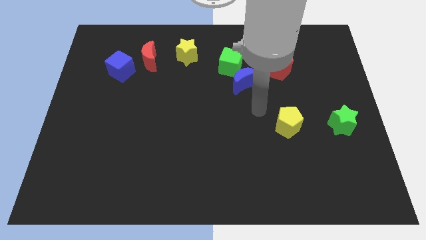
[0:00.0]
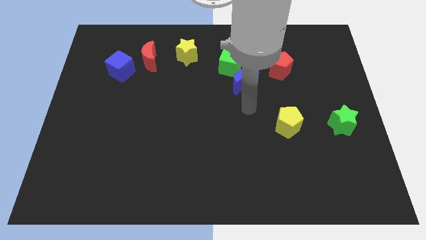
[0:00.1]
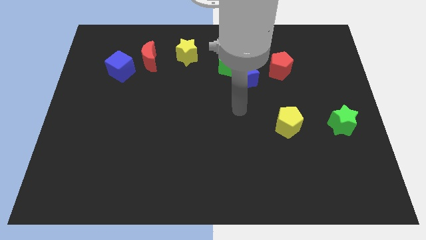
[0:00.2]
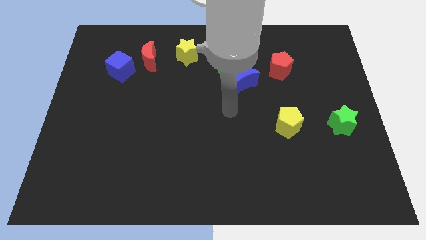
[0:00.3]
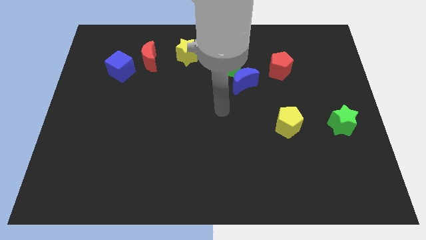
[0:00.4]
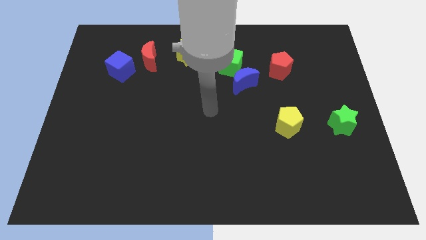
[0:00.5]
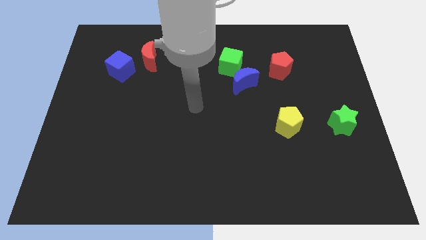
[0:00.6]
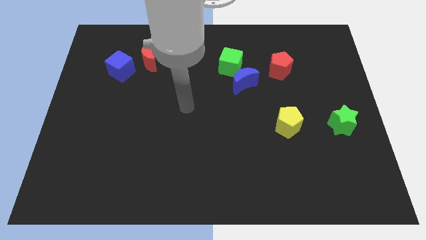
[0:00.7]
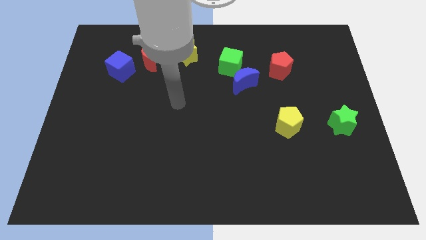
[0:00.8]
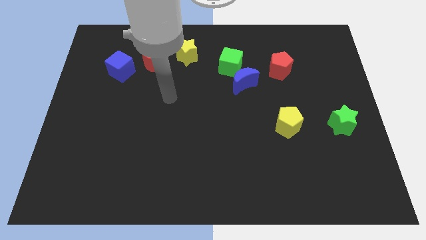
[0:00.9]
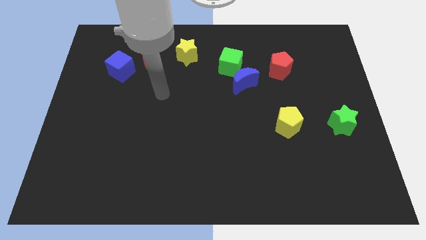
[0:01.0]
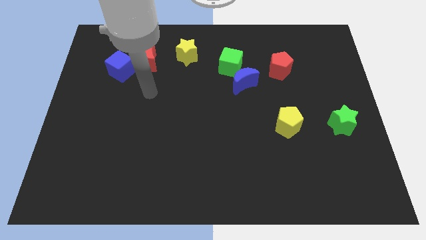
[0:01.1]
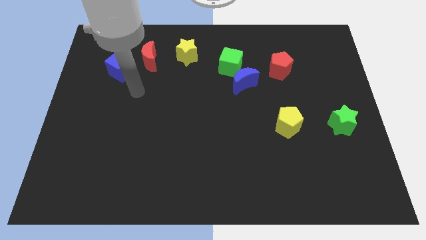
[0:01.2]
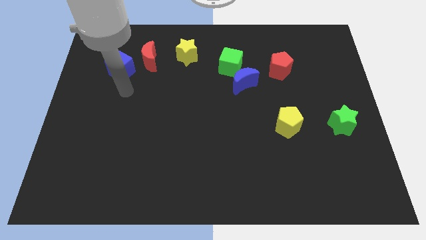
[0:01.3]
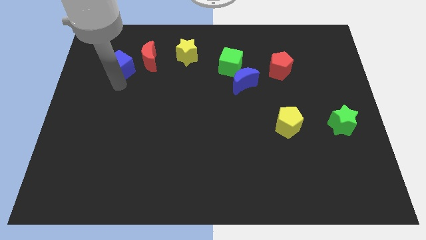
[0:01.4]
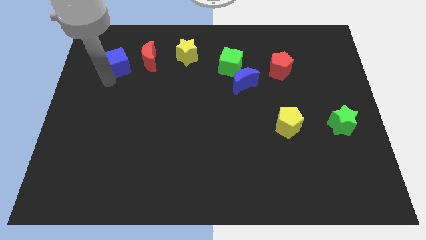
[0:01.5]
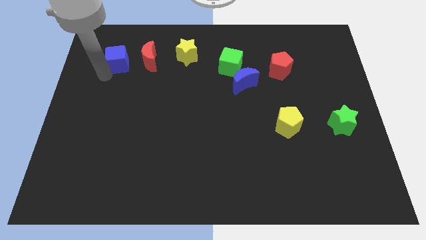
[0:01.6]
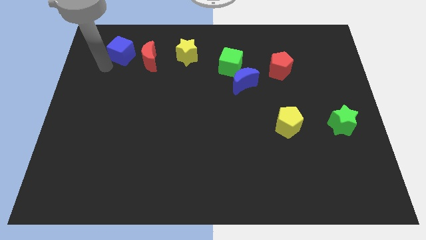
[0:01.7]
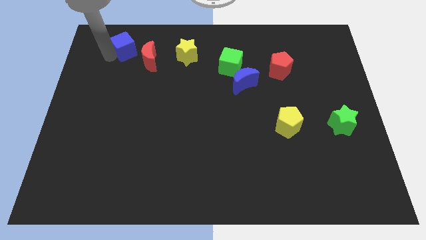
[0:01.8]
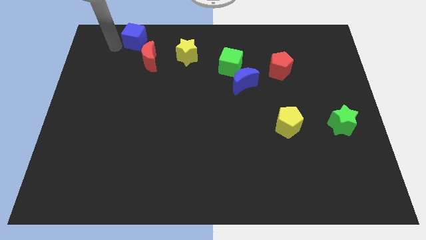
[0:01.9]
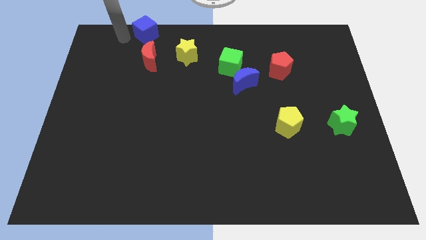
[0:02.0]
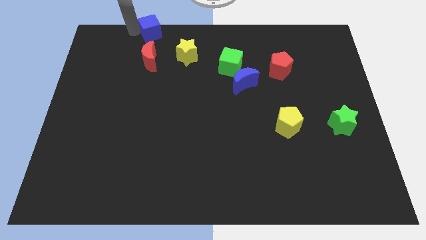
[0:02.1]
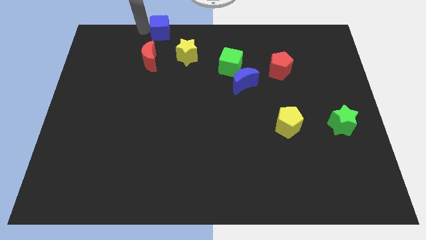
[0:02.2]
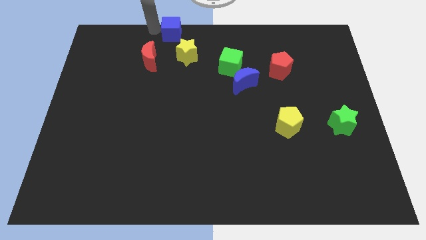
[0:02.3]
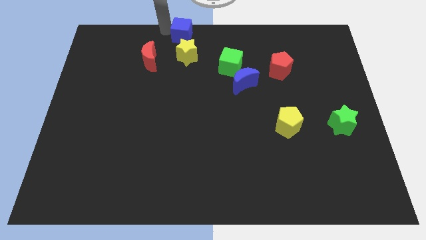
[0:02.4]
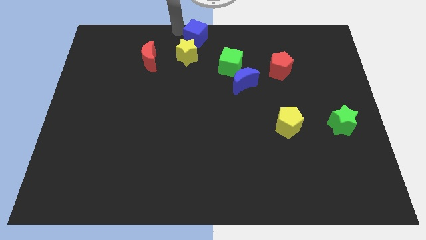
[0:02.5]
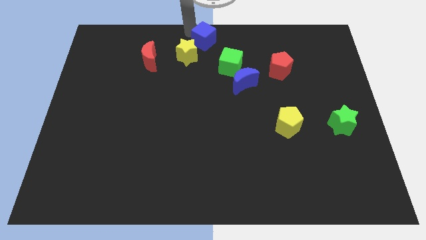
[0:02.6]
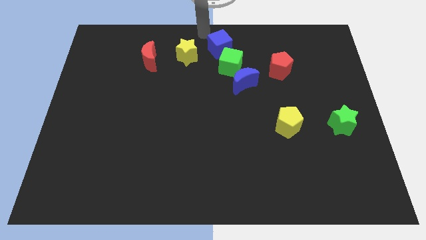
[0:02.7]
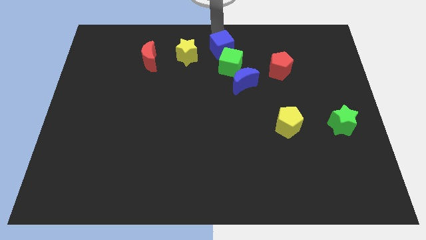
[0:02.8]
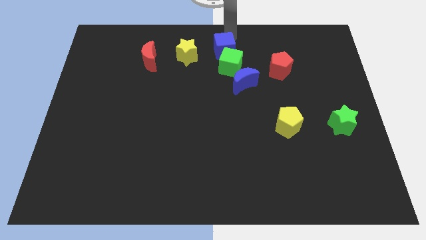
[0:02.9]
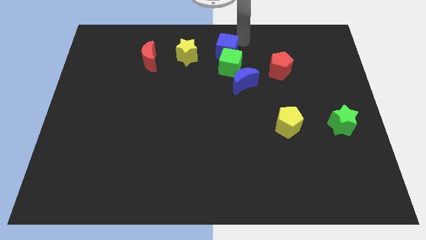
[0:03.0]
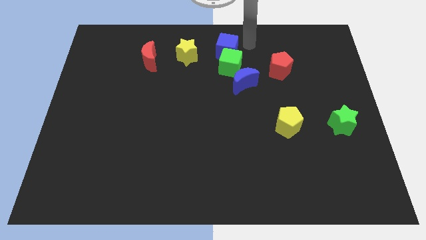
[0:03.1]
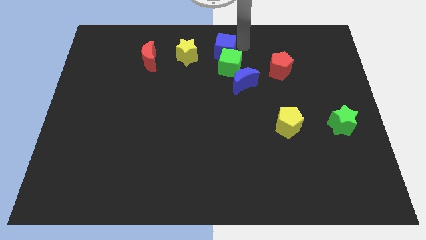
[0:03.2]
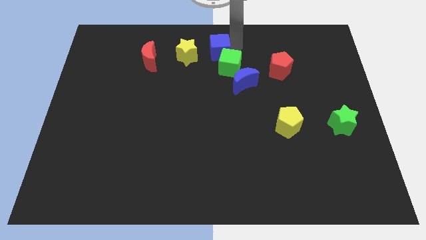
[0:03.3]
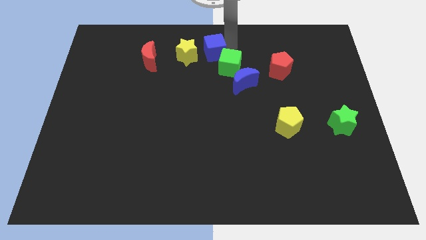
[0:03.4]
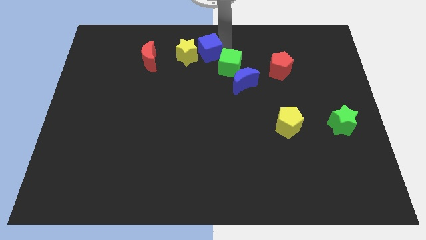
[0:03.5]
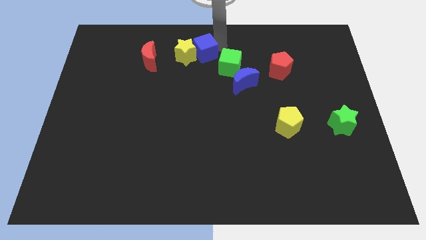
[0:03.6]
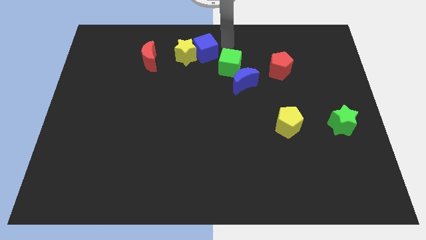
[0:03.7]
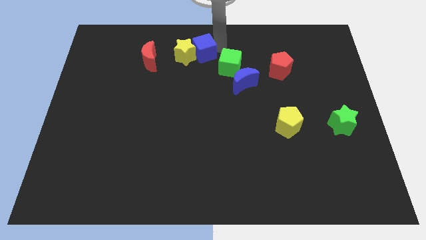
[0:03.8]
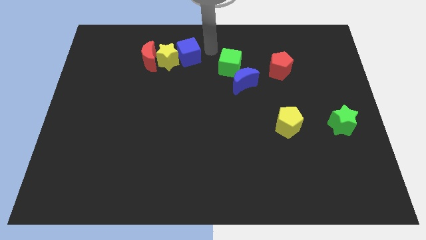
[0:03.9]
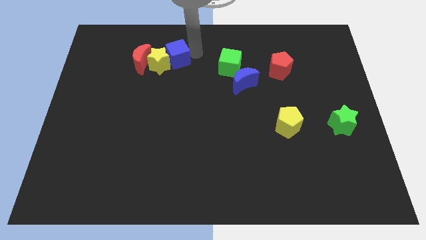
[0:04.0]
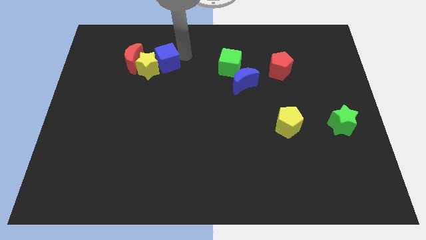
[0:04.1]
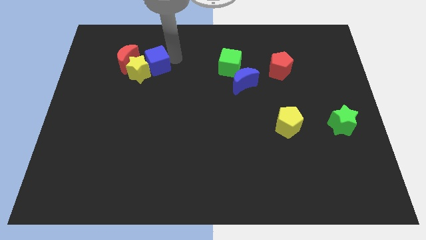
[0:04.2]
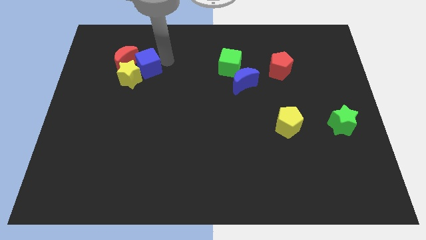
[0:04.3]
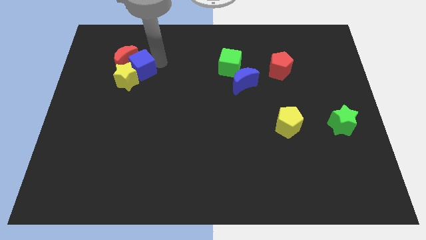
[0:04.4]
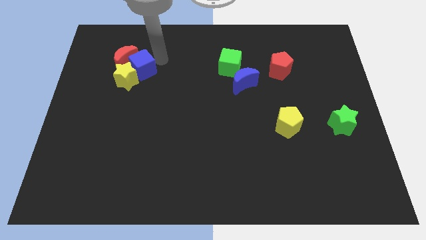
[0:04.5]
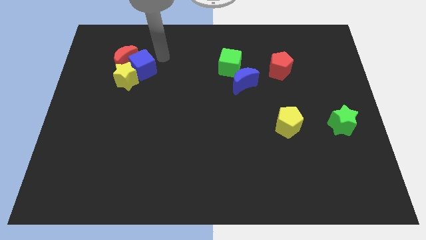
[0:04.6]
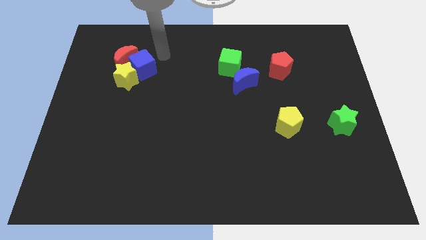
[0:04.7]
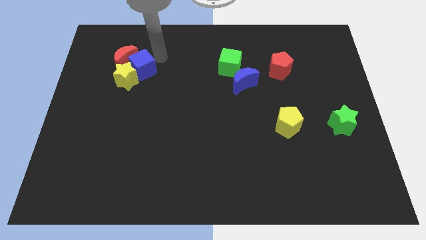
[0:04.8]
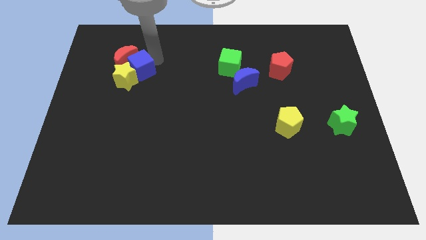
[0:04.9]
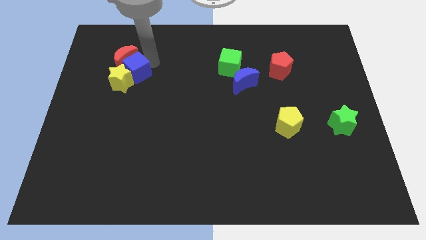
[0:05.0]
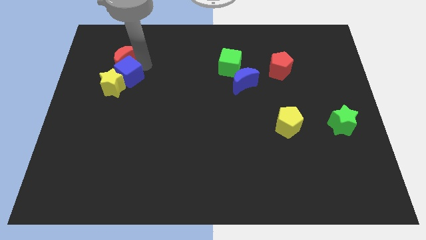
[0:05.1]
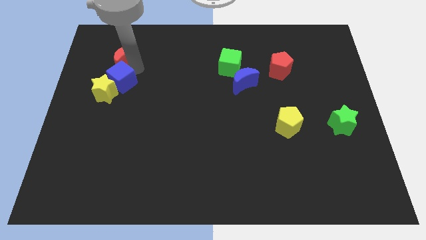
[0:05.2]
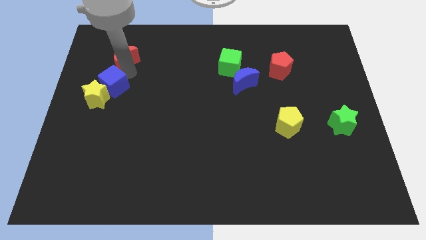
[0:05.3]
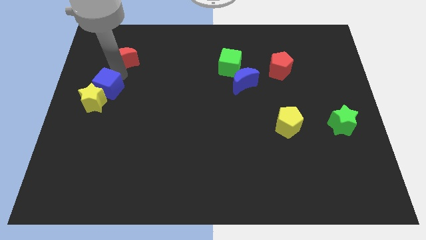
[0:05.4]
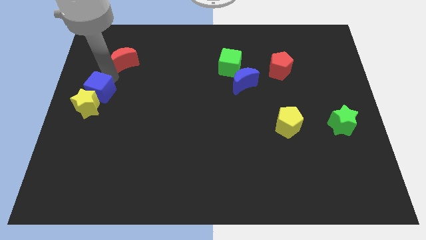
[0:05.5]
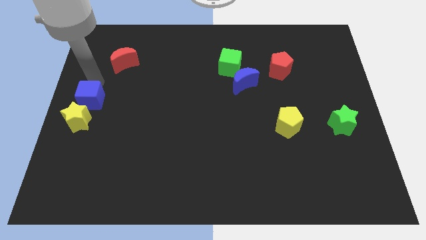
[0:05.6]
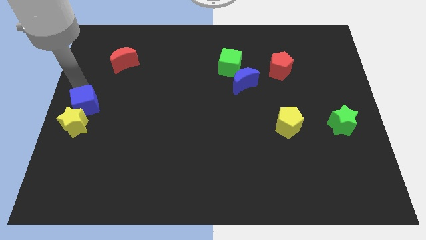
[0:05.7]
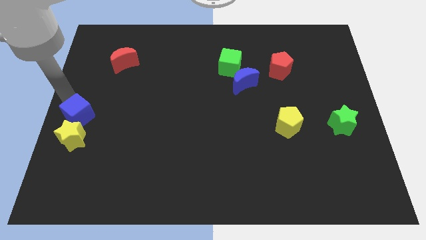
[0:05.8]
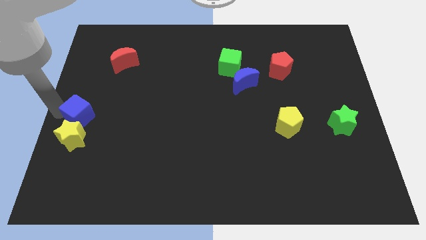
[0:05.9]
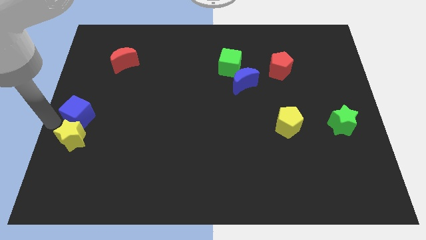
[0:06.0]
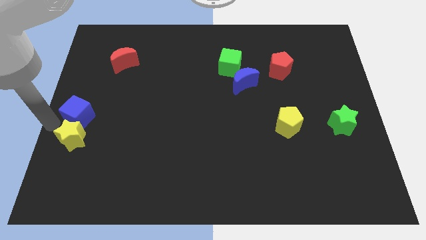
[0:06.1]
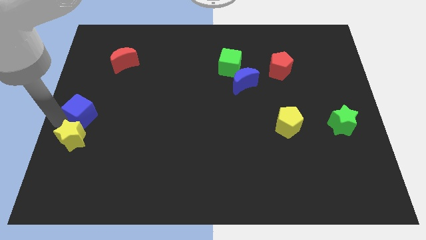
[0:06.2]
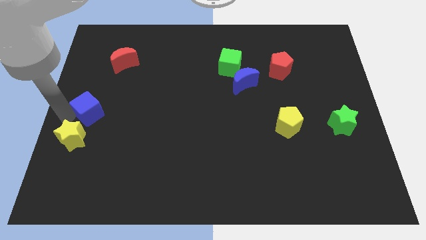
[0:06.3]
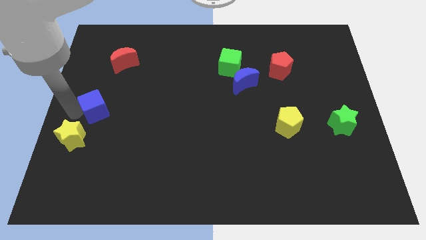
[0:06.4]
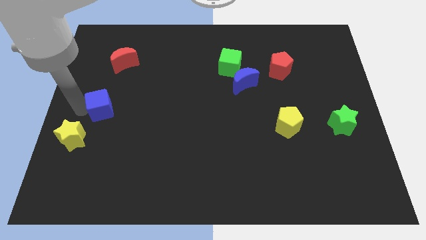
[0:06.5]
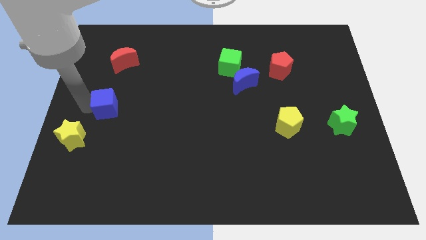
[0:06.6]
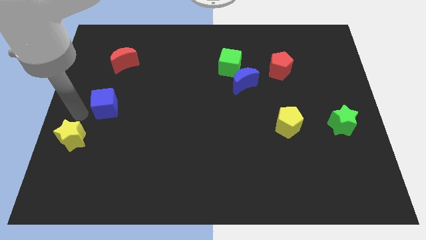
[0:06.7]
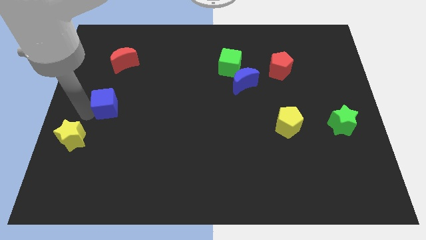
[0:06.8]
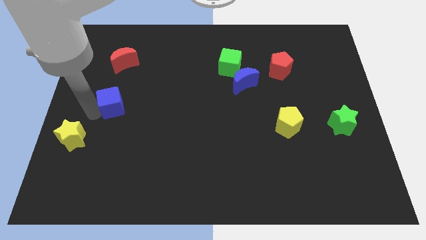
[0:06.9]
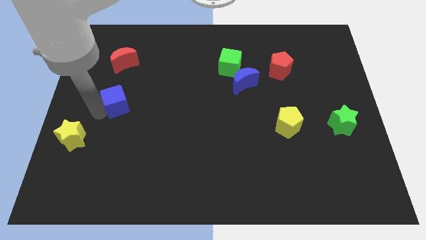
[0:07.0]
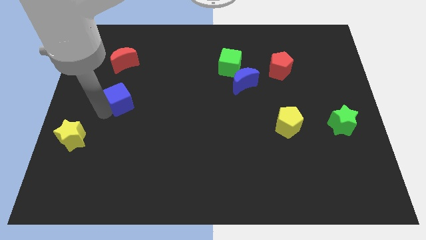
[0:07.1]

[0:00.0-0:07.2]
move the blue cube downwards and then right slightly

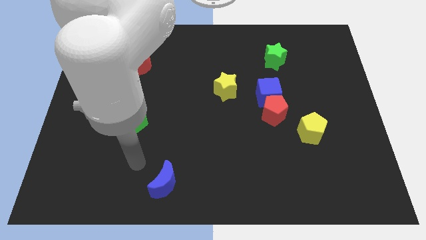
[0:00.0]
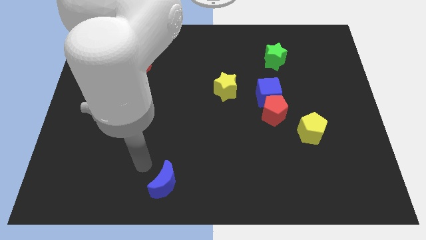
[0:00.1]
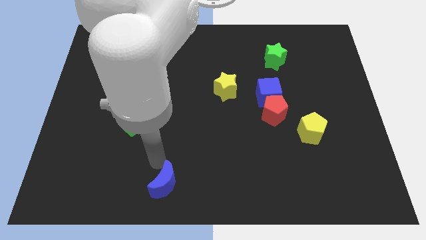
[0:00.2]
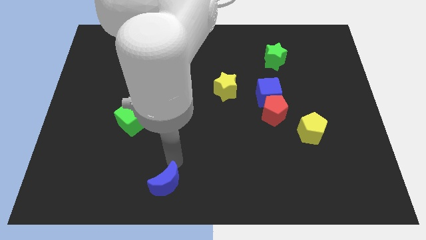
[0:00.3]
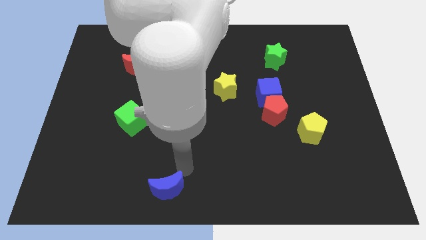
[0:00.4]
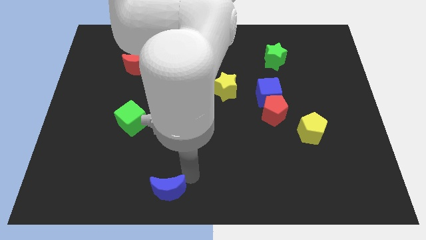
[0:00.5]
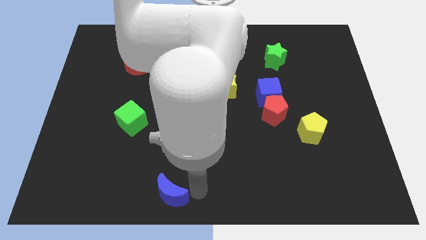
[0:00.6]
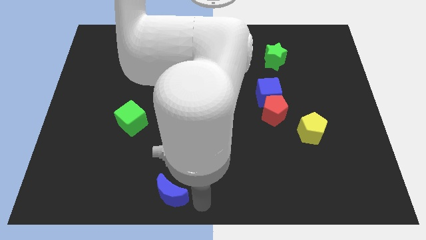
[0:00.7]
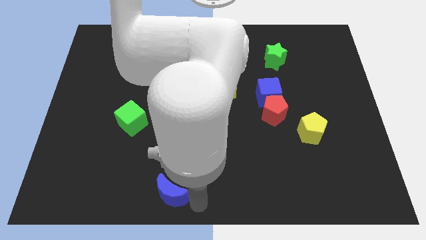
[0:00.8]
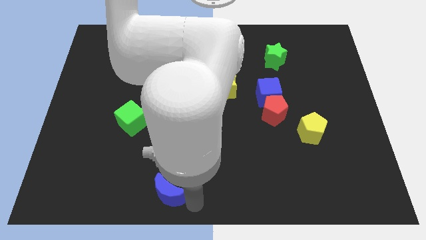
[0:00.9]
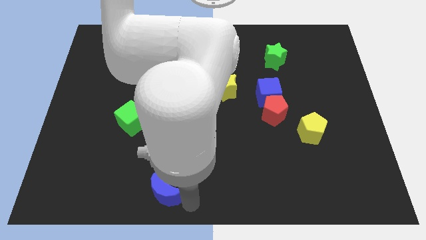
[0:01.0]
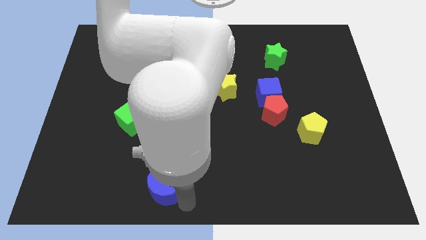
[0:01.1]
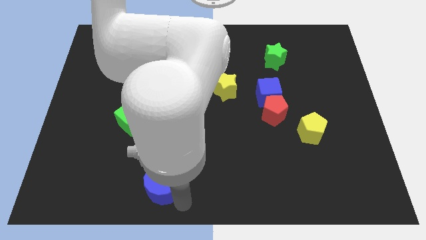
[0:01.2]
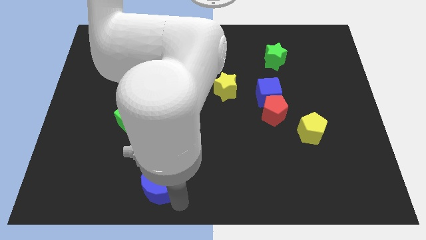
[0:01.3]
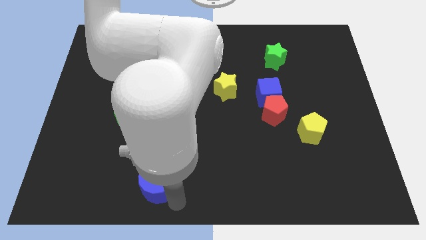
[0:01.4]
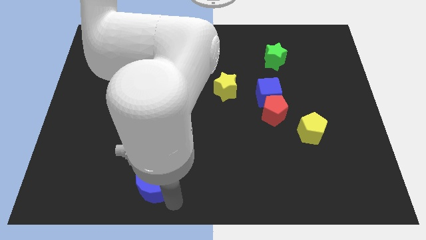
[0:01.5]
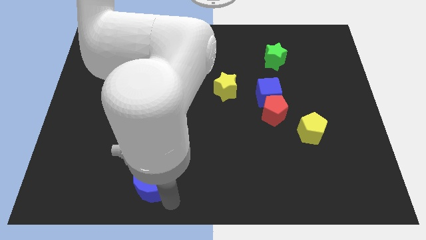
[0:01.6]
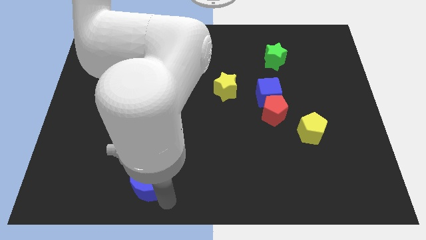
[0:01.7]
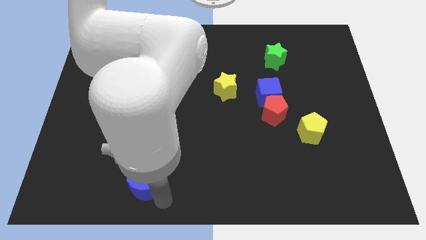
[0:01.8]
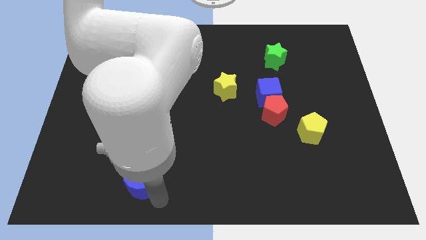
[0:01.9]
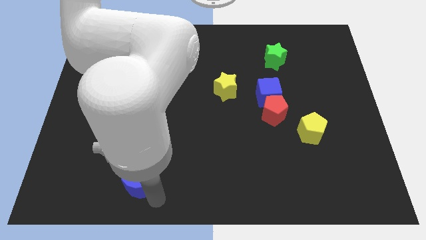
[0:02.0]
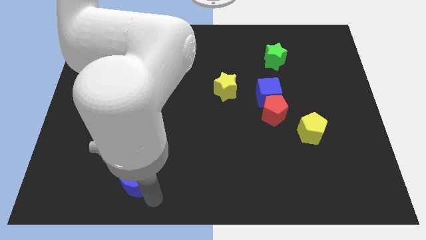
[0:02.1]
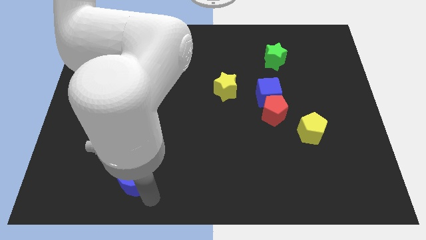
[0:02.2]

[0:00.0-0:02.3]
move the blue moon to the left a little
